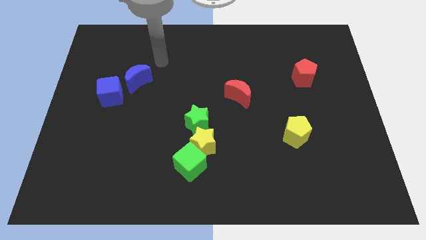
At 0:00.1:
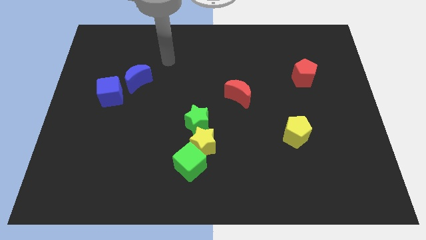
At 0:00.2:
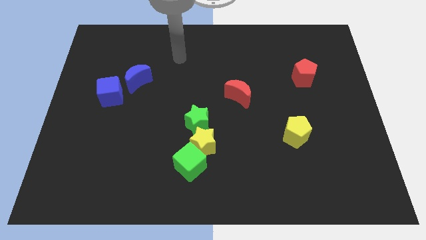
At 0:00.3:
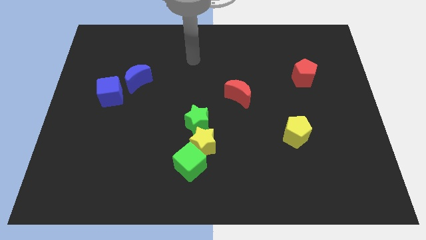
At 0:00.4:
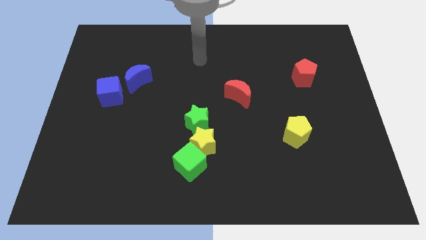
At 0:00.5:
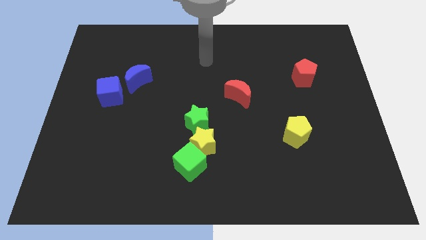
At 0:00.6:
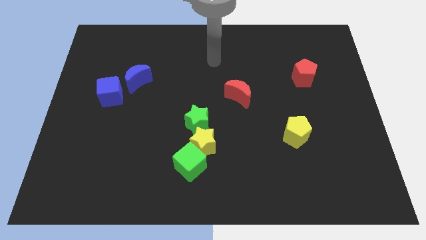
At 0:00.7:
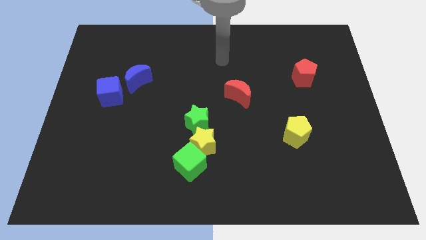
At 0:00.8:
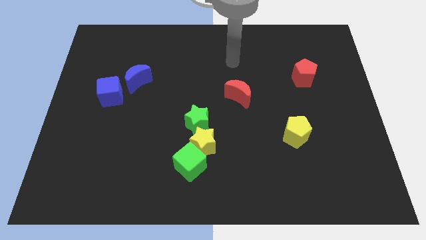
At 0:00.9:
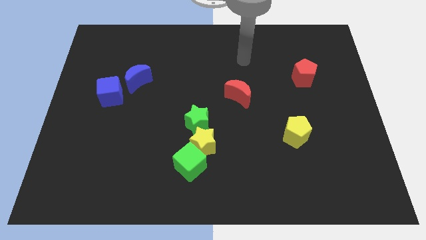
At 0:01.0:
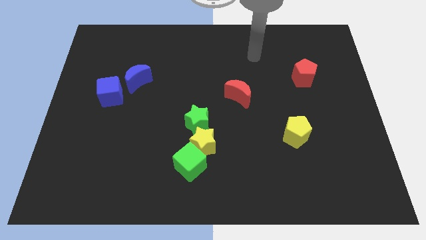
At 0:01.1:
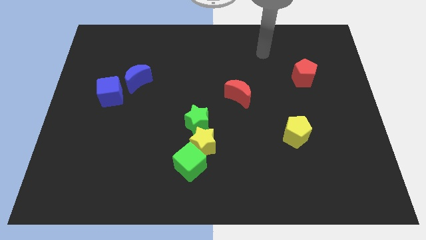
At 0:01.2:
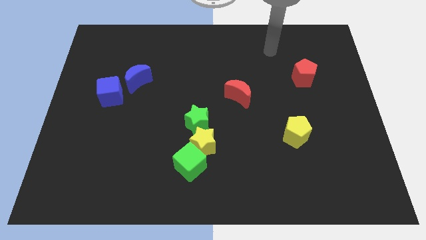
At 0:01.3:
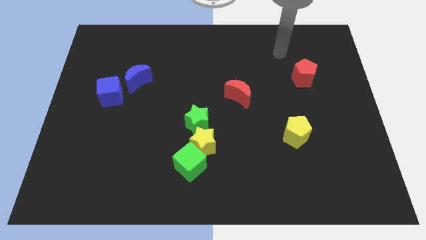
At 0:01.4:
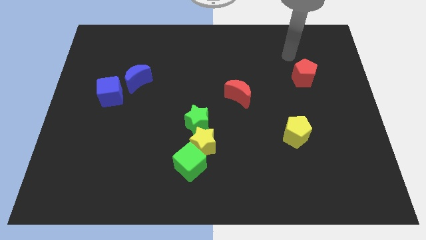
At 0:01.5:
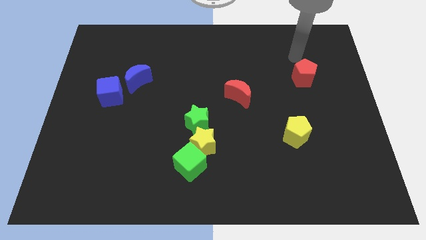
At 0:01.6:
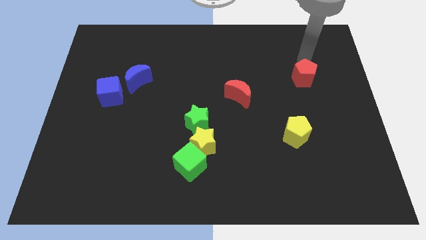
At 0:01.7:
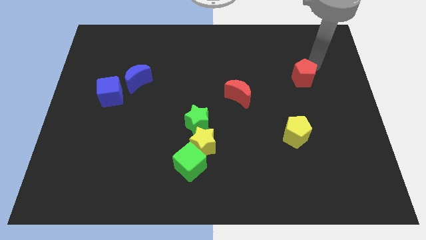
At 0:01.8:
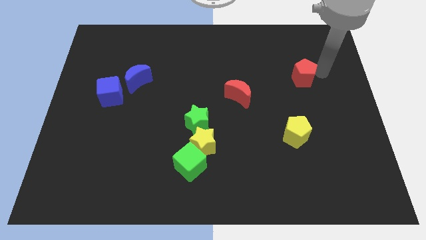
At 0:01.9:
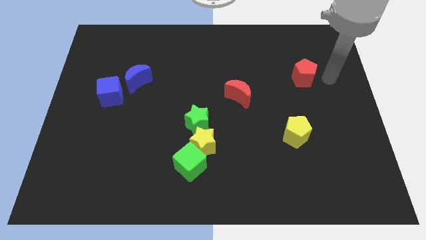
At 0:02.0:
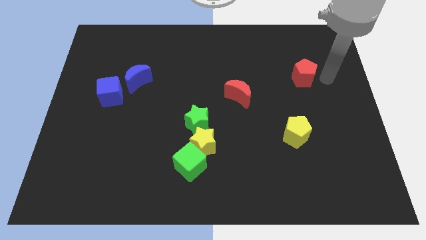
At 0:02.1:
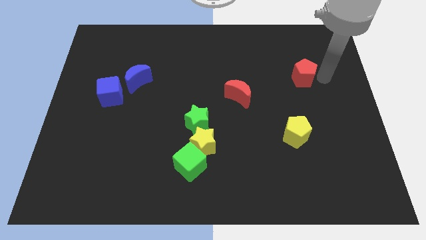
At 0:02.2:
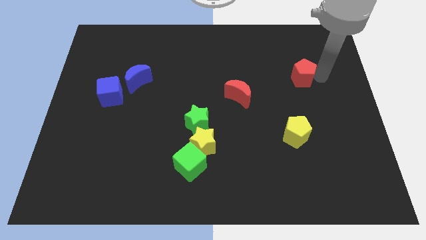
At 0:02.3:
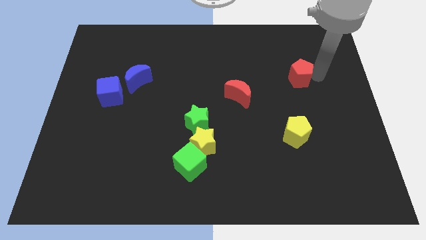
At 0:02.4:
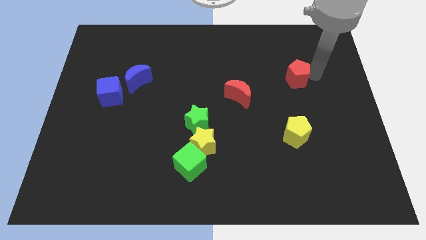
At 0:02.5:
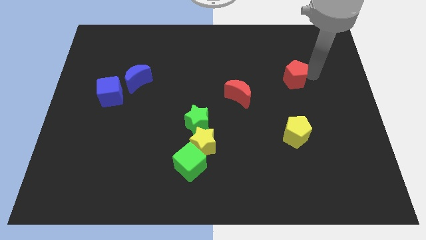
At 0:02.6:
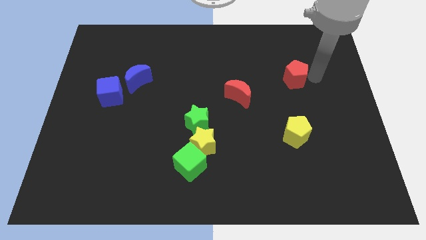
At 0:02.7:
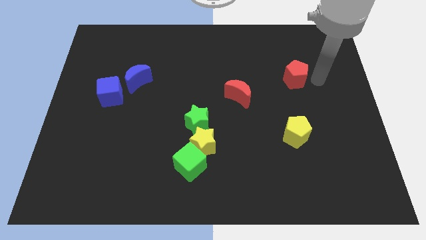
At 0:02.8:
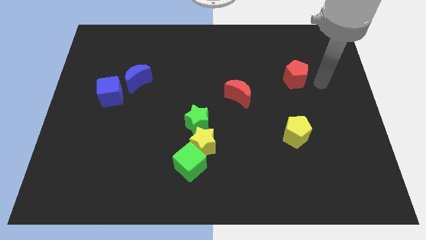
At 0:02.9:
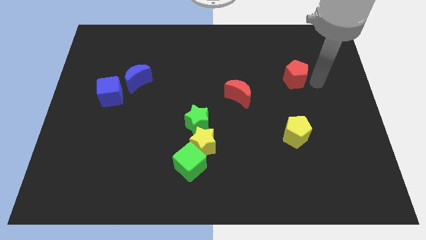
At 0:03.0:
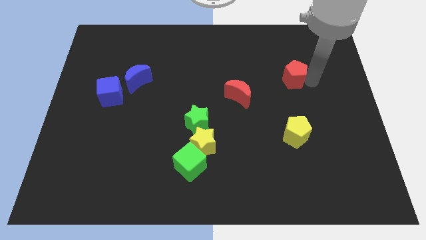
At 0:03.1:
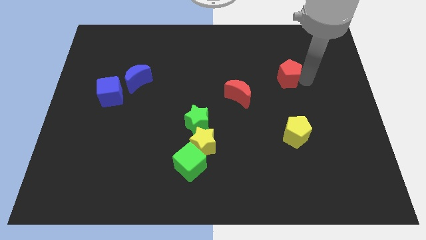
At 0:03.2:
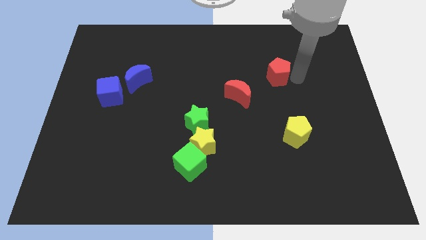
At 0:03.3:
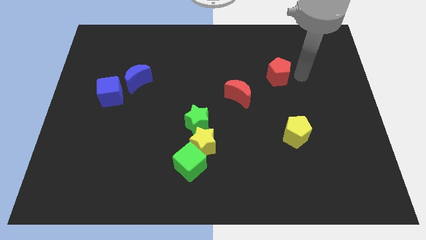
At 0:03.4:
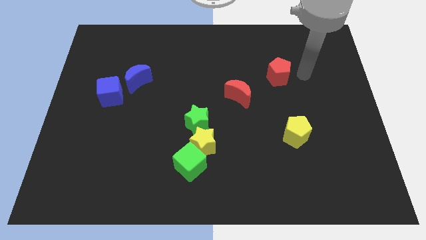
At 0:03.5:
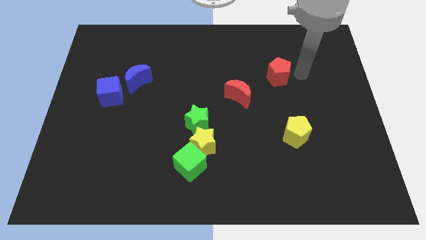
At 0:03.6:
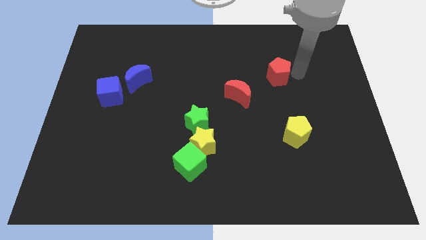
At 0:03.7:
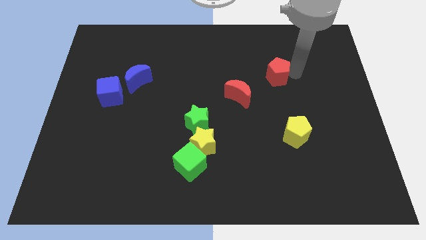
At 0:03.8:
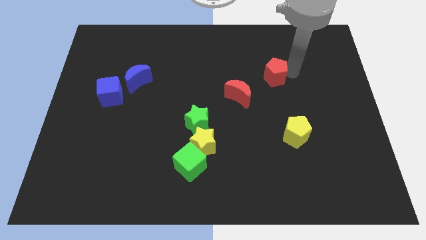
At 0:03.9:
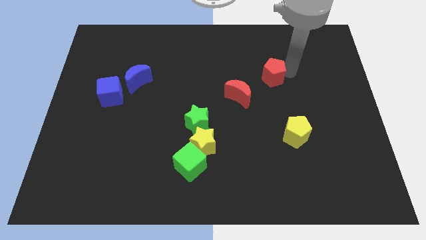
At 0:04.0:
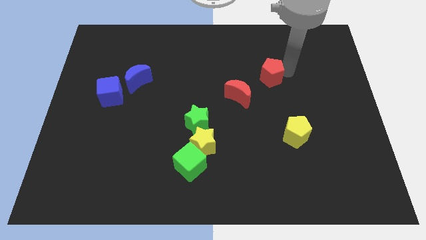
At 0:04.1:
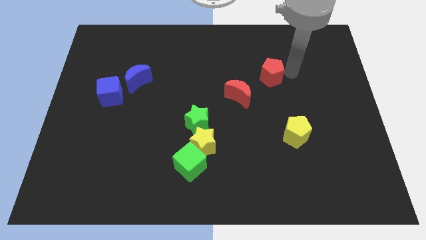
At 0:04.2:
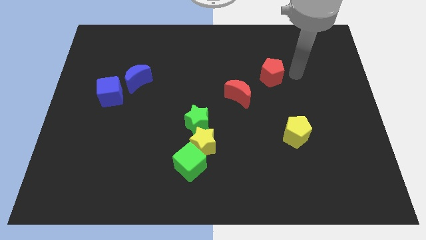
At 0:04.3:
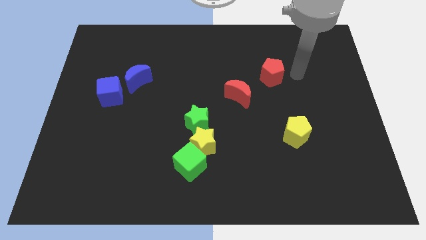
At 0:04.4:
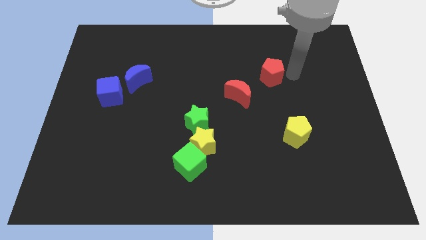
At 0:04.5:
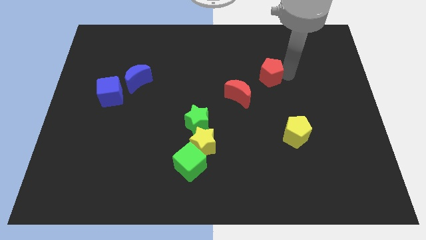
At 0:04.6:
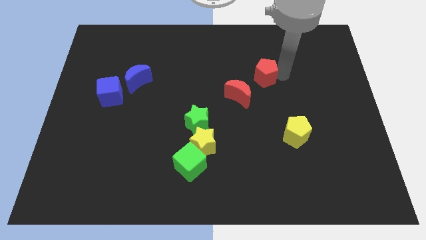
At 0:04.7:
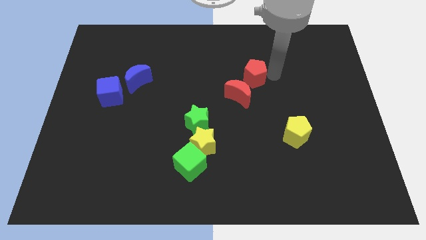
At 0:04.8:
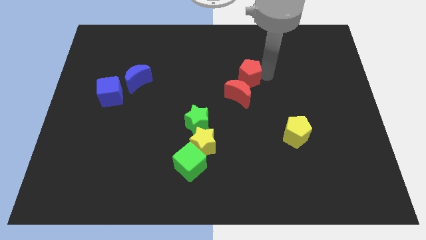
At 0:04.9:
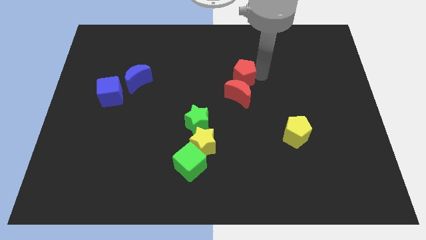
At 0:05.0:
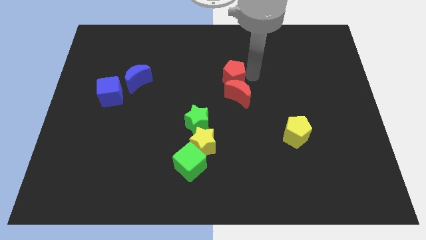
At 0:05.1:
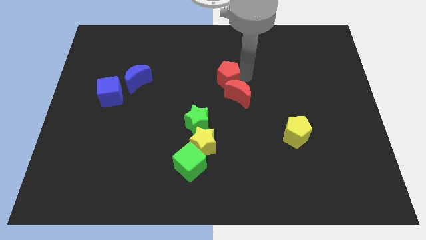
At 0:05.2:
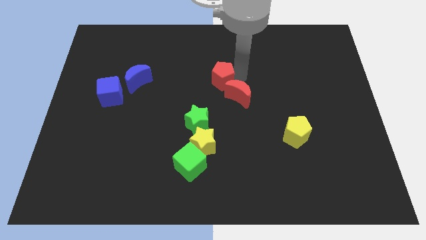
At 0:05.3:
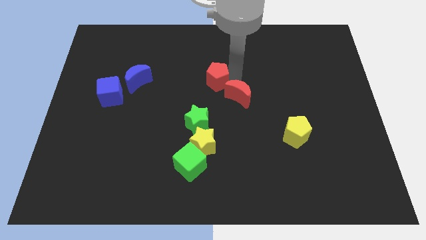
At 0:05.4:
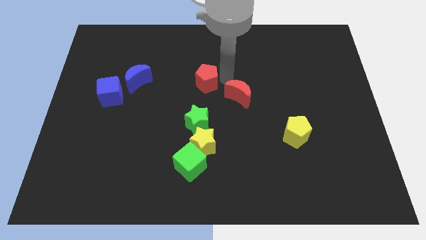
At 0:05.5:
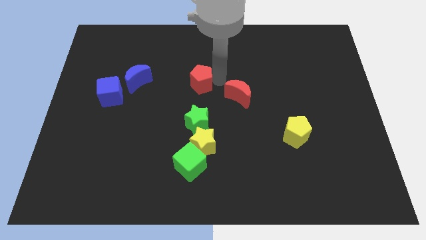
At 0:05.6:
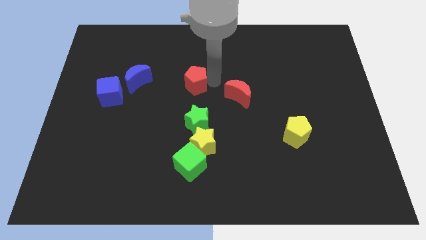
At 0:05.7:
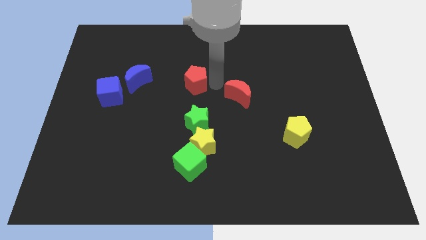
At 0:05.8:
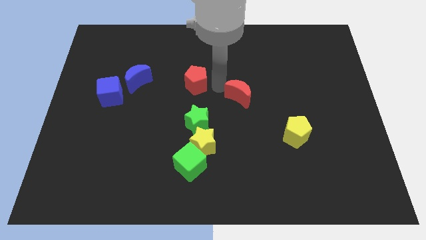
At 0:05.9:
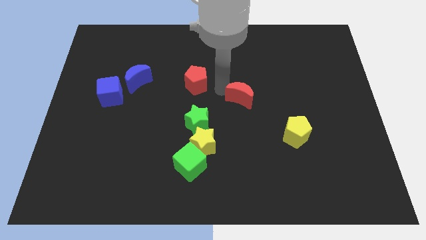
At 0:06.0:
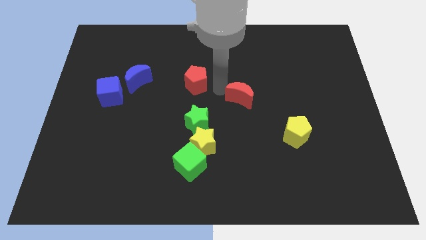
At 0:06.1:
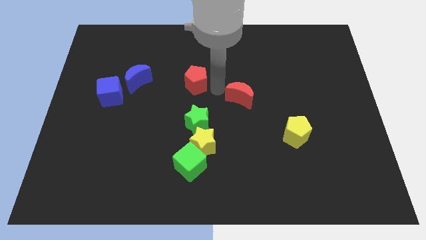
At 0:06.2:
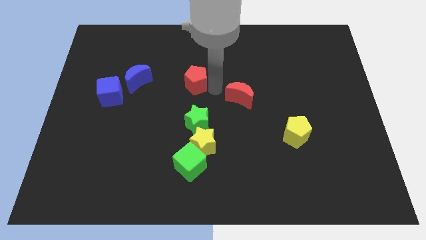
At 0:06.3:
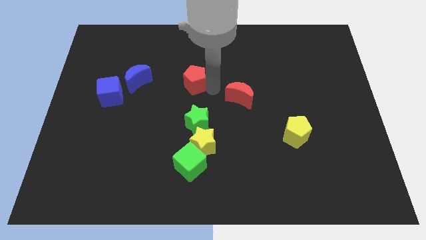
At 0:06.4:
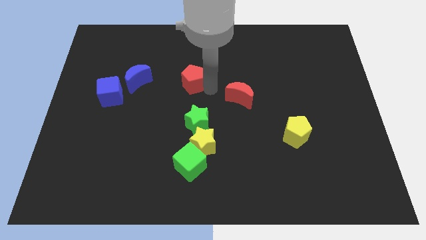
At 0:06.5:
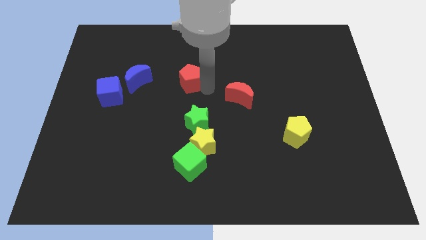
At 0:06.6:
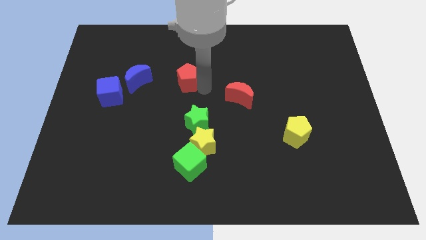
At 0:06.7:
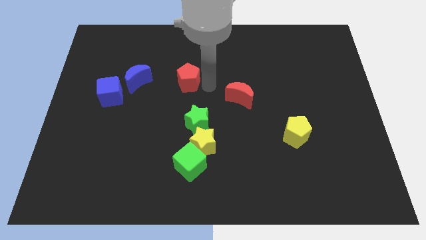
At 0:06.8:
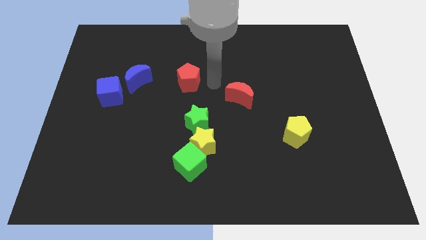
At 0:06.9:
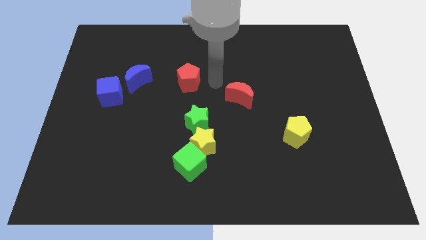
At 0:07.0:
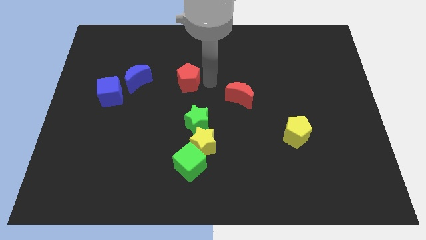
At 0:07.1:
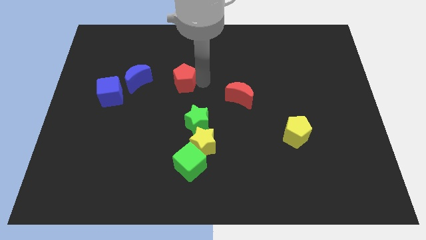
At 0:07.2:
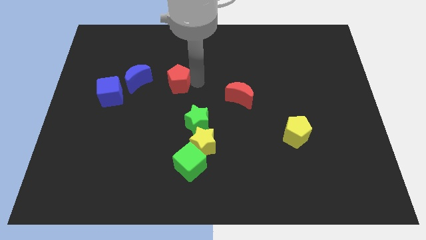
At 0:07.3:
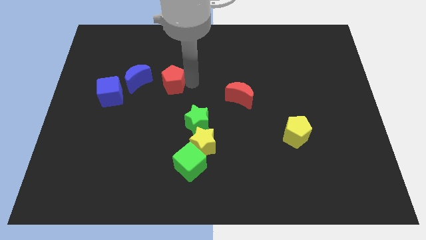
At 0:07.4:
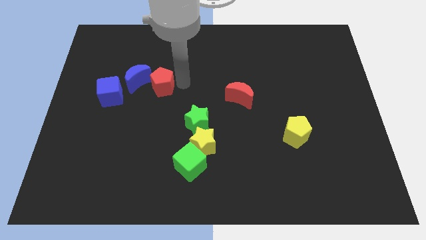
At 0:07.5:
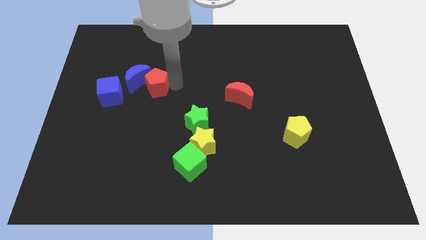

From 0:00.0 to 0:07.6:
slide the red pentagon to the blue moon
